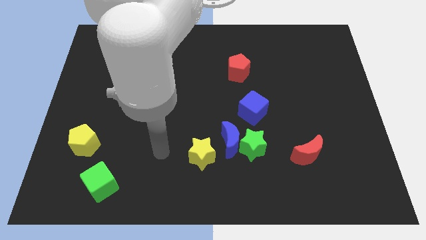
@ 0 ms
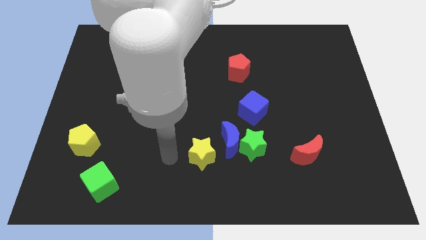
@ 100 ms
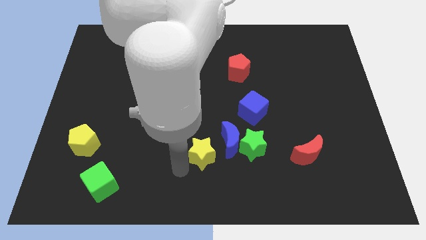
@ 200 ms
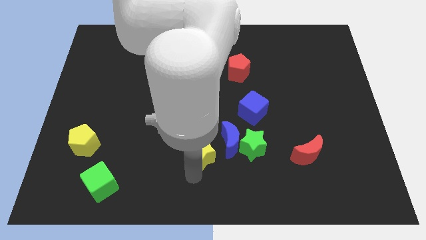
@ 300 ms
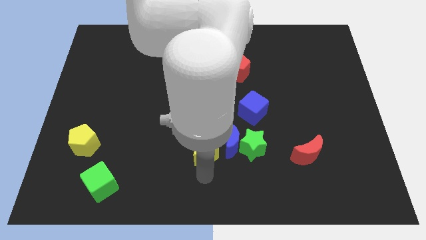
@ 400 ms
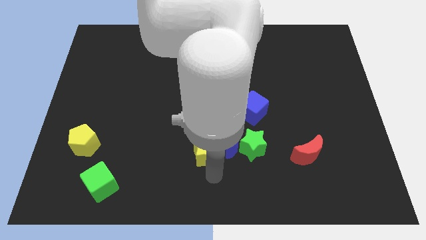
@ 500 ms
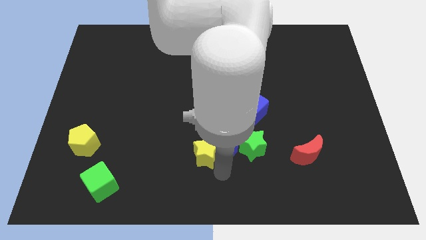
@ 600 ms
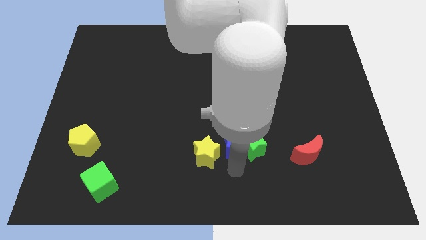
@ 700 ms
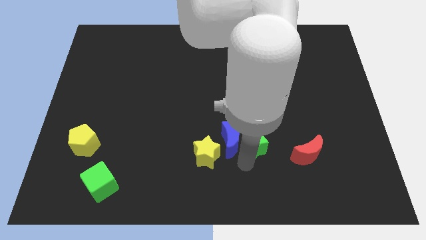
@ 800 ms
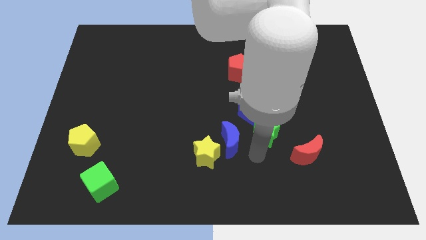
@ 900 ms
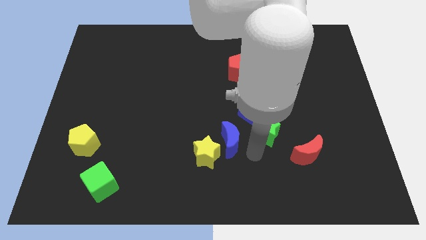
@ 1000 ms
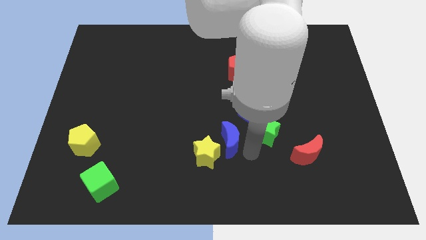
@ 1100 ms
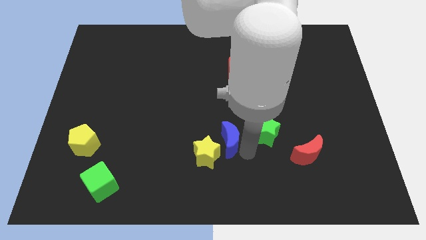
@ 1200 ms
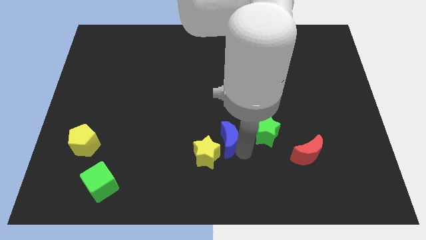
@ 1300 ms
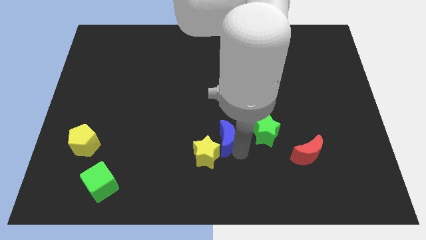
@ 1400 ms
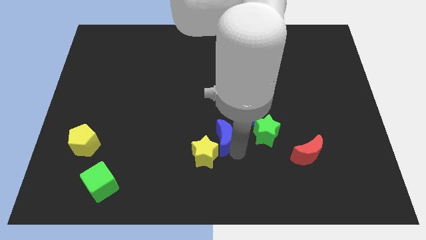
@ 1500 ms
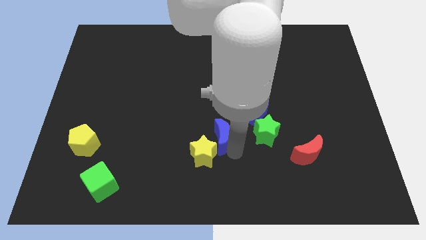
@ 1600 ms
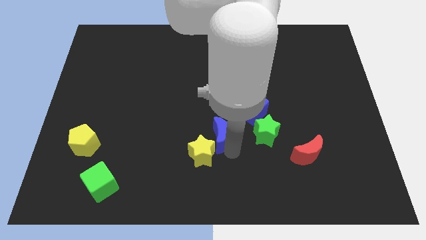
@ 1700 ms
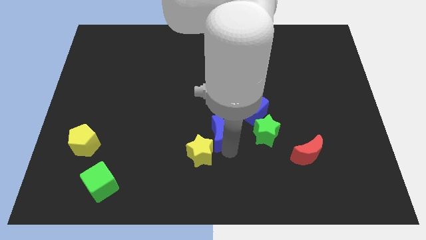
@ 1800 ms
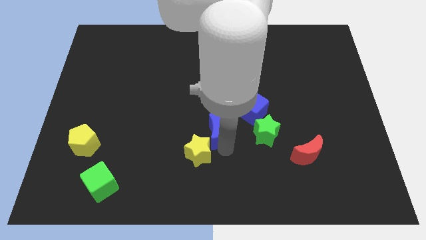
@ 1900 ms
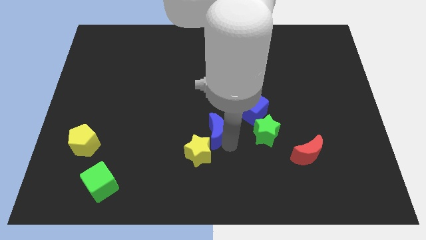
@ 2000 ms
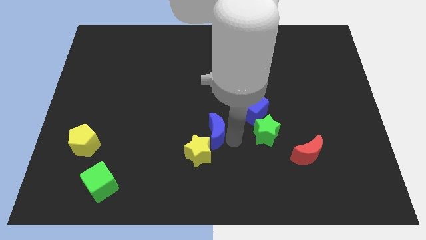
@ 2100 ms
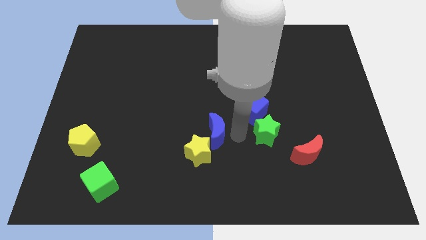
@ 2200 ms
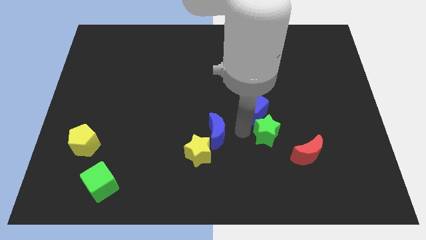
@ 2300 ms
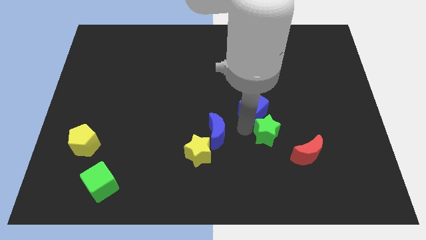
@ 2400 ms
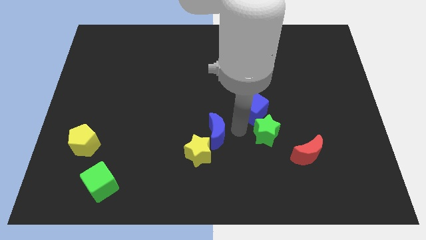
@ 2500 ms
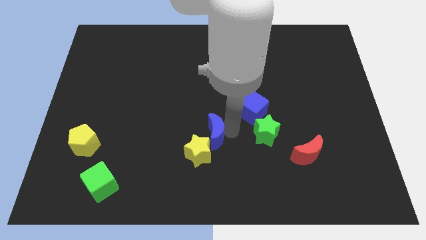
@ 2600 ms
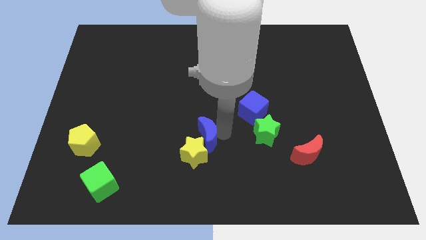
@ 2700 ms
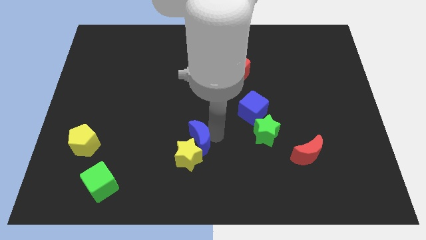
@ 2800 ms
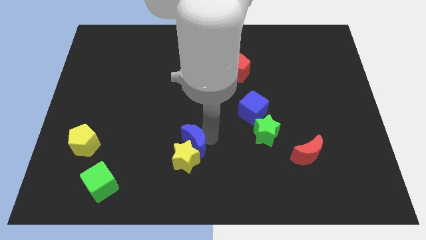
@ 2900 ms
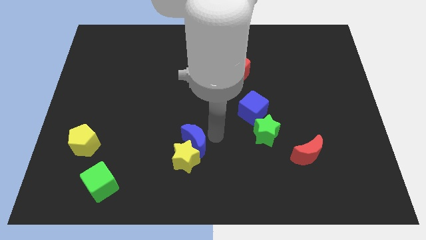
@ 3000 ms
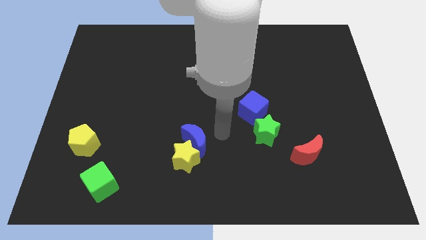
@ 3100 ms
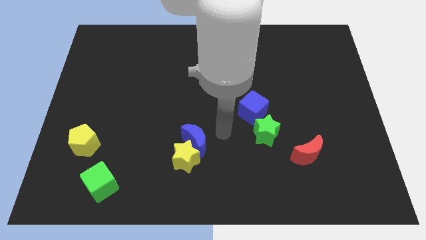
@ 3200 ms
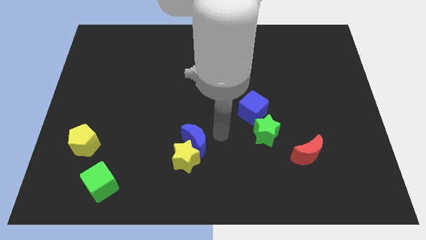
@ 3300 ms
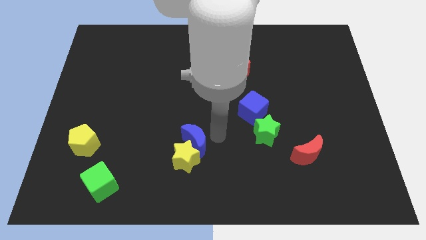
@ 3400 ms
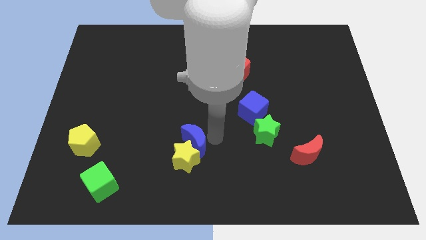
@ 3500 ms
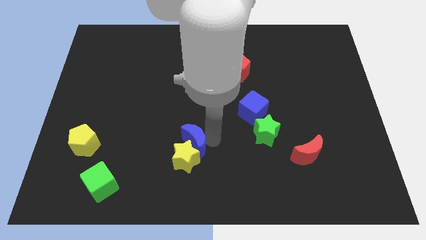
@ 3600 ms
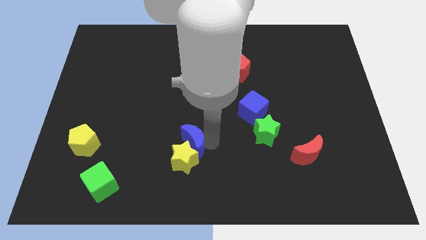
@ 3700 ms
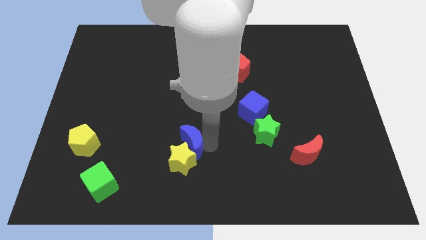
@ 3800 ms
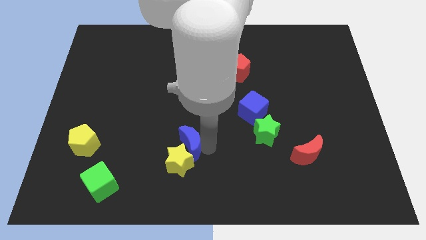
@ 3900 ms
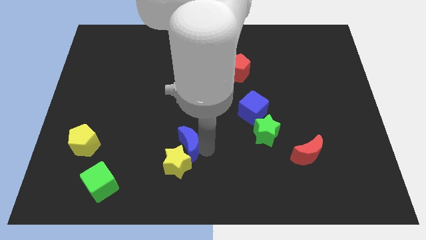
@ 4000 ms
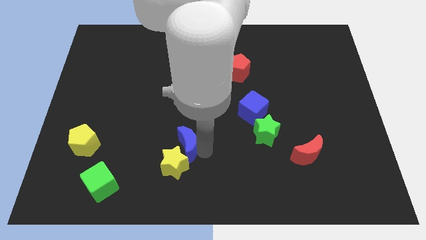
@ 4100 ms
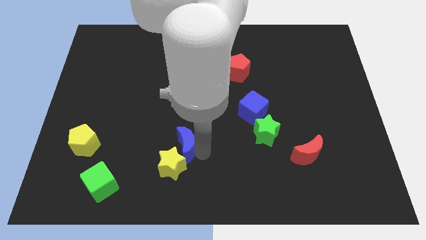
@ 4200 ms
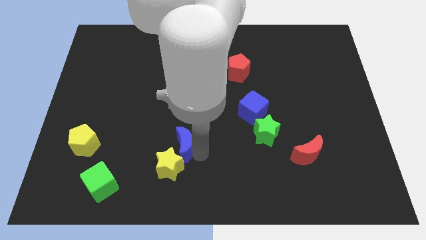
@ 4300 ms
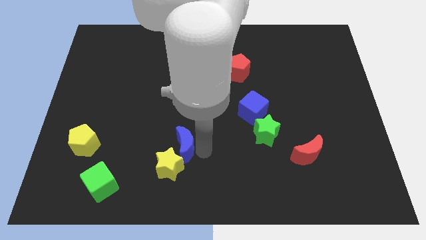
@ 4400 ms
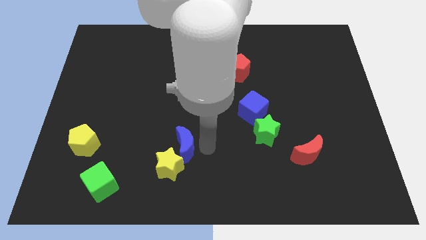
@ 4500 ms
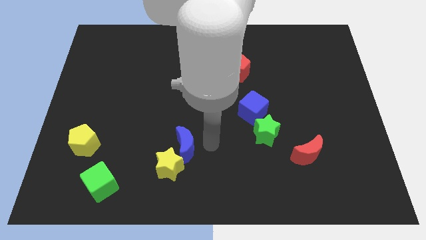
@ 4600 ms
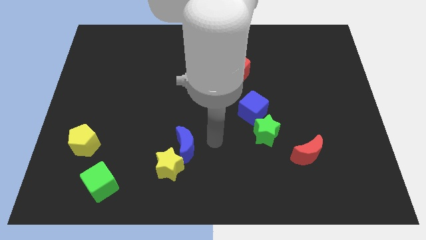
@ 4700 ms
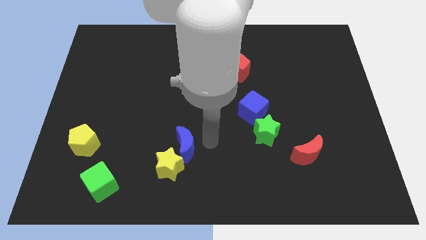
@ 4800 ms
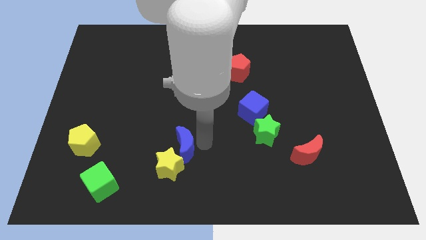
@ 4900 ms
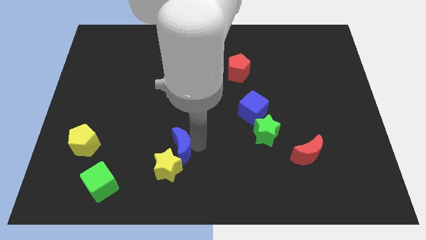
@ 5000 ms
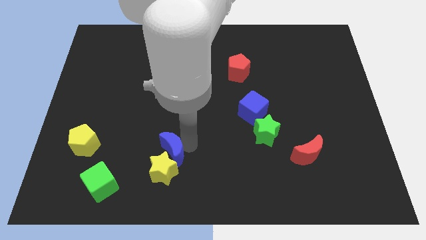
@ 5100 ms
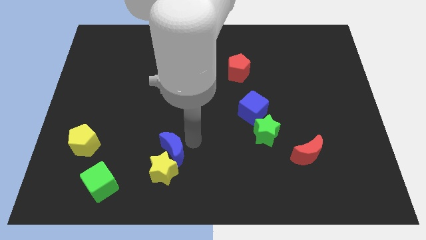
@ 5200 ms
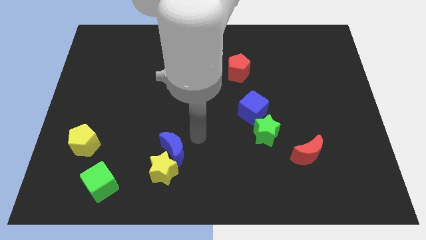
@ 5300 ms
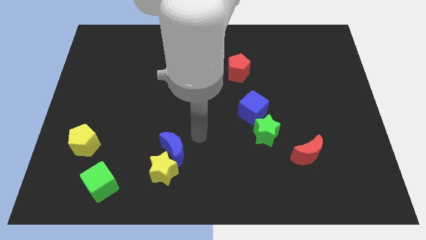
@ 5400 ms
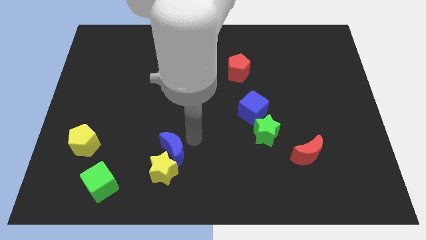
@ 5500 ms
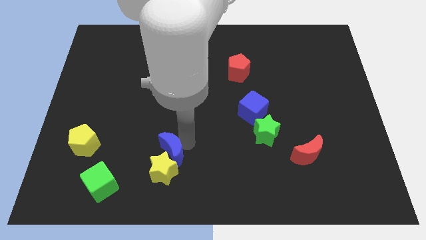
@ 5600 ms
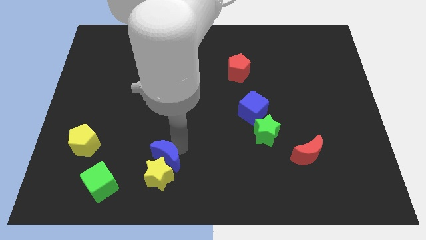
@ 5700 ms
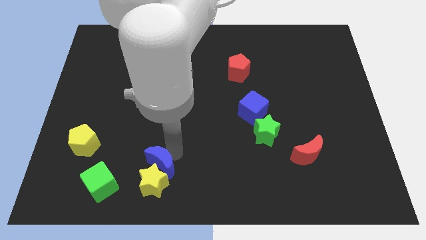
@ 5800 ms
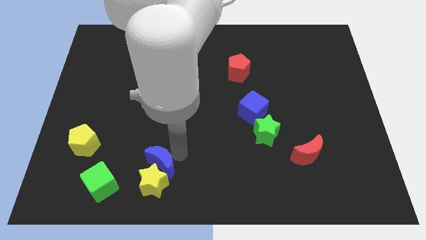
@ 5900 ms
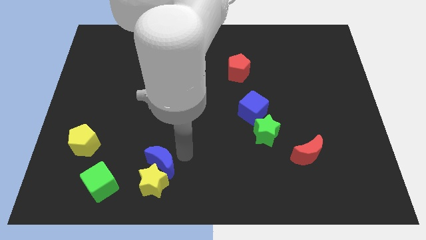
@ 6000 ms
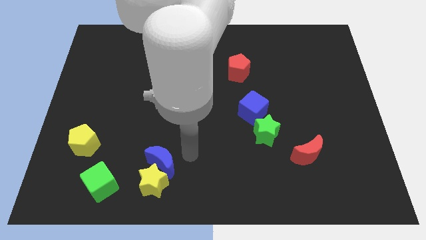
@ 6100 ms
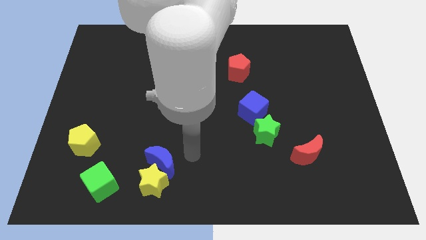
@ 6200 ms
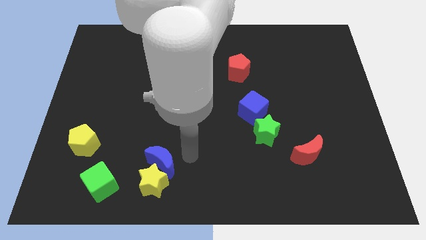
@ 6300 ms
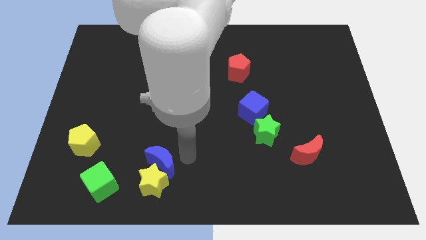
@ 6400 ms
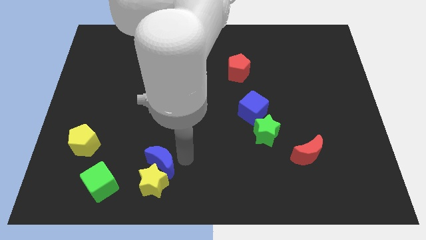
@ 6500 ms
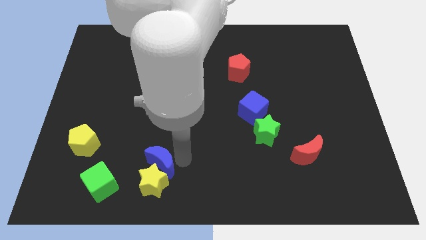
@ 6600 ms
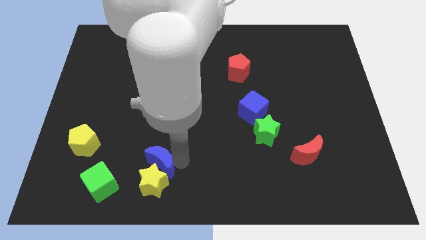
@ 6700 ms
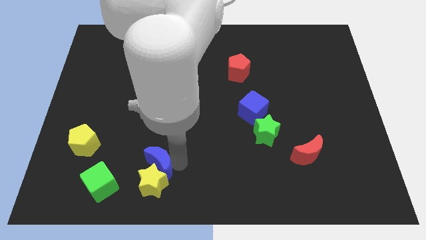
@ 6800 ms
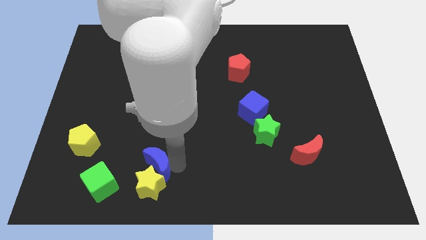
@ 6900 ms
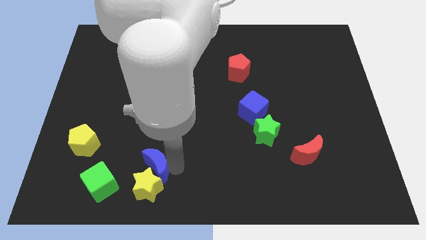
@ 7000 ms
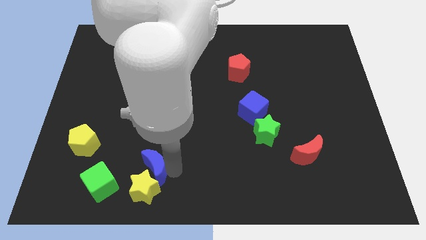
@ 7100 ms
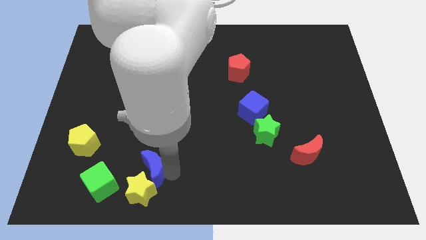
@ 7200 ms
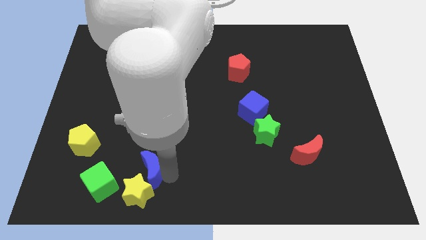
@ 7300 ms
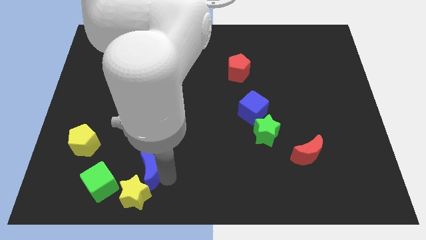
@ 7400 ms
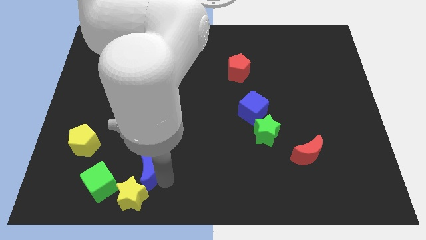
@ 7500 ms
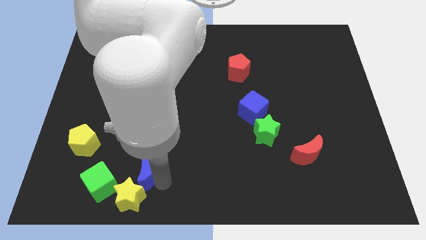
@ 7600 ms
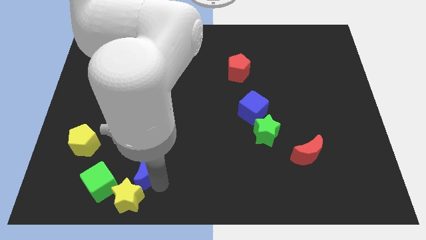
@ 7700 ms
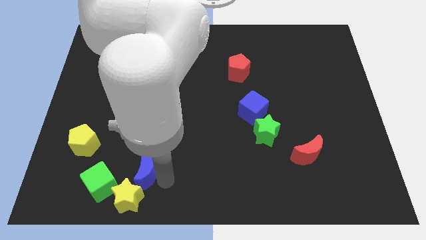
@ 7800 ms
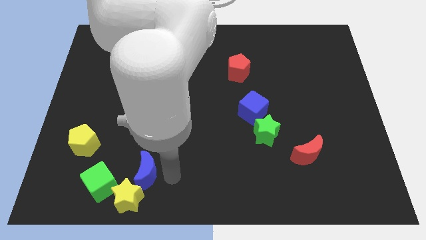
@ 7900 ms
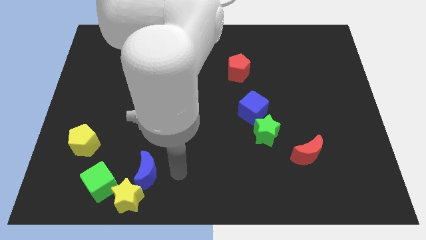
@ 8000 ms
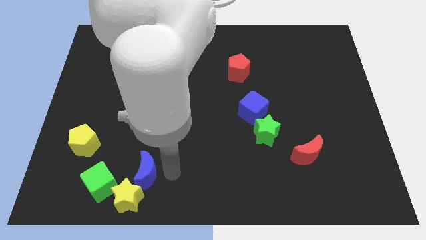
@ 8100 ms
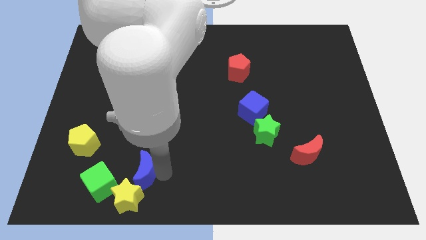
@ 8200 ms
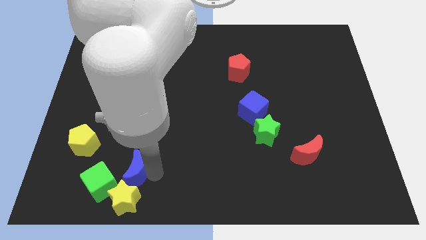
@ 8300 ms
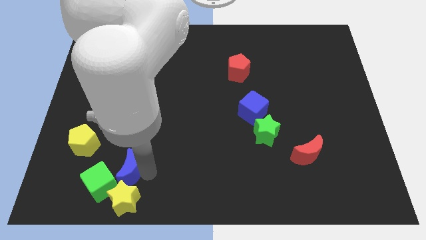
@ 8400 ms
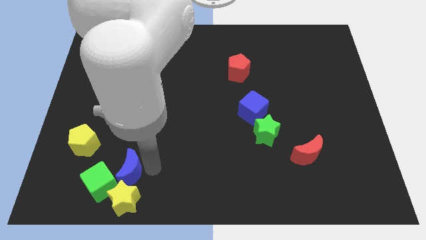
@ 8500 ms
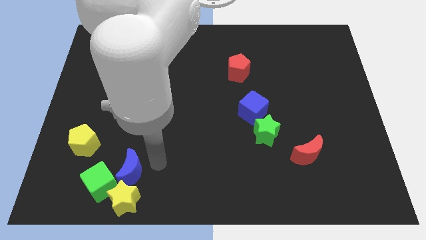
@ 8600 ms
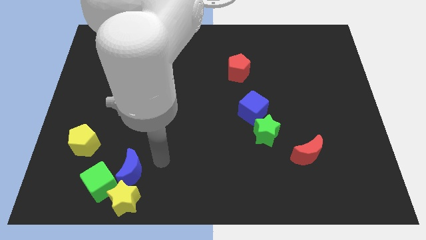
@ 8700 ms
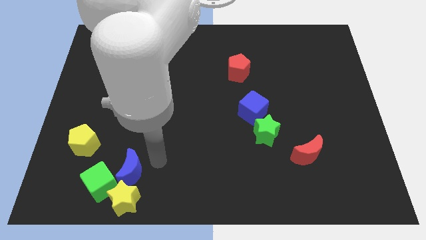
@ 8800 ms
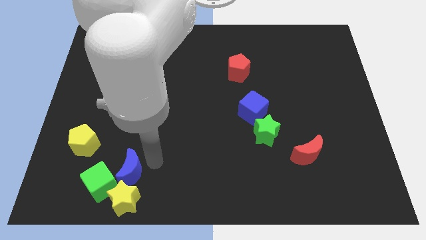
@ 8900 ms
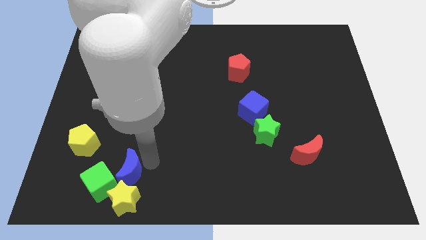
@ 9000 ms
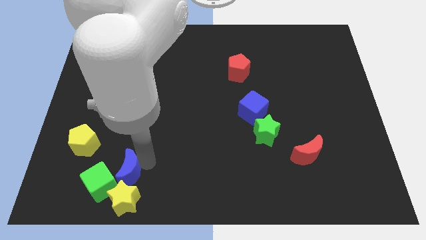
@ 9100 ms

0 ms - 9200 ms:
slide the blue moon close to the green cube
